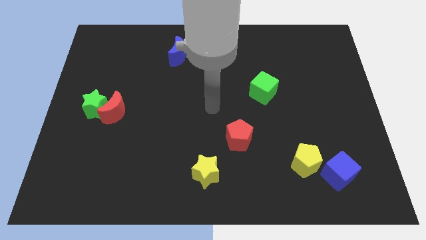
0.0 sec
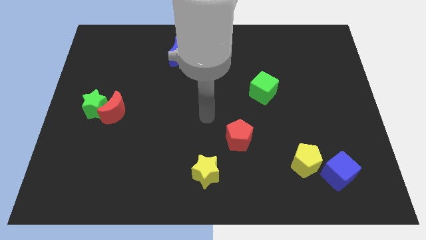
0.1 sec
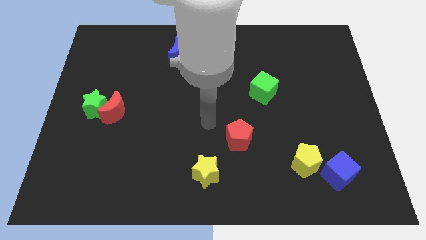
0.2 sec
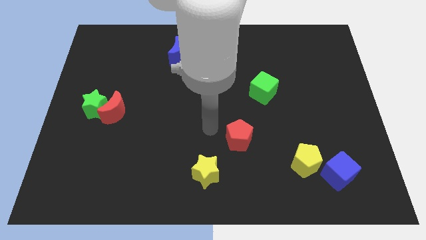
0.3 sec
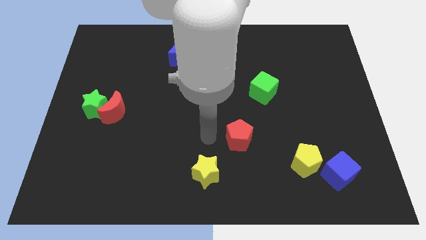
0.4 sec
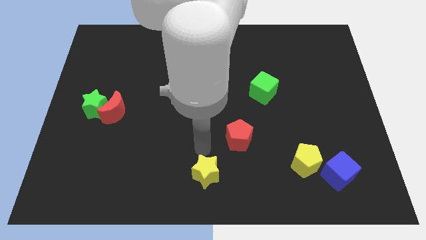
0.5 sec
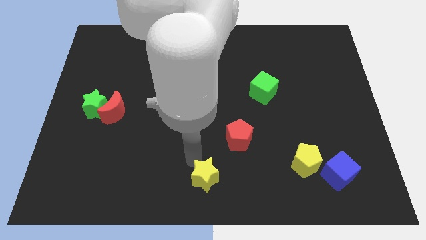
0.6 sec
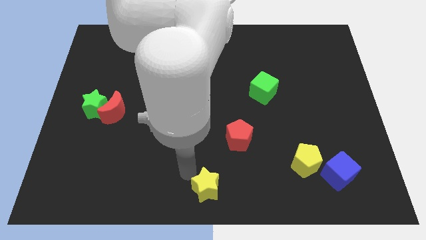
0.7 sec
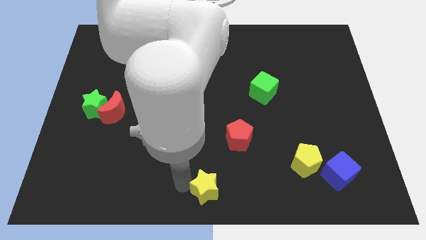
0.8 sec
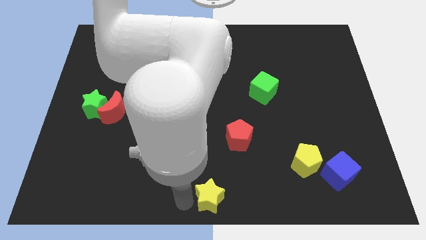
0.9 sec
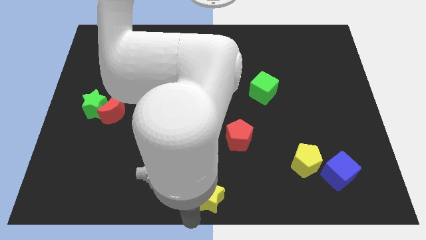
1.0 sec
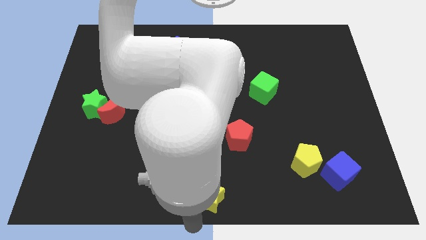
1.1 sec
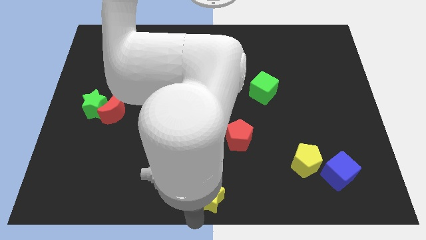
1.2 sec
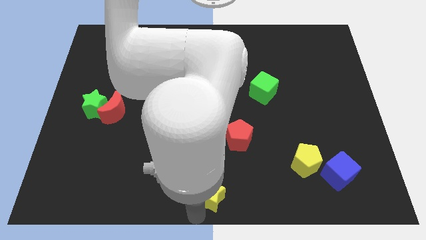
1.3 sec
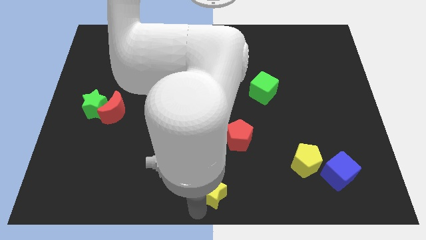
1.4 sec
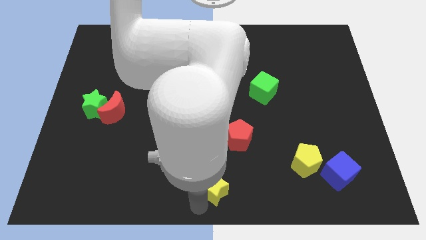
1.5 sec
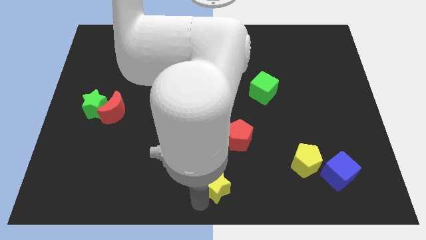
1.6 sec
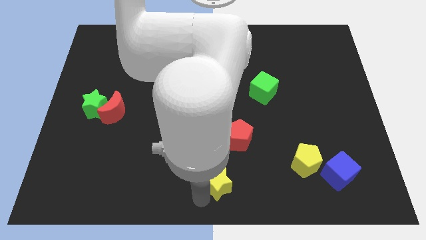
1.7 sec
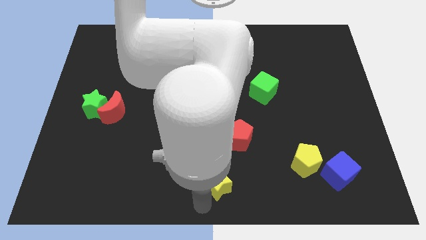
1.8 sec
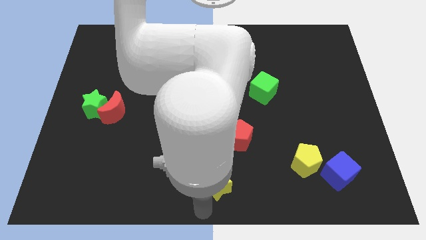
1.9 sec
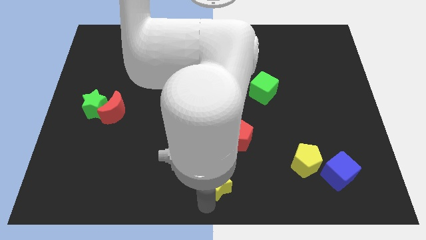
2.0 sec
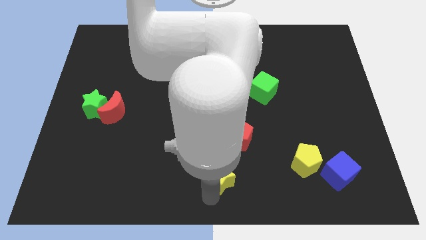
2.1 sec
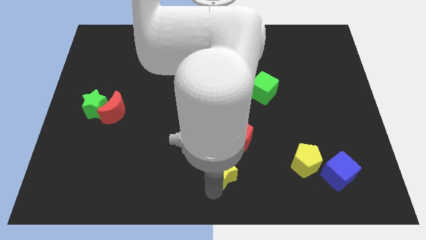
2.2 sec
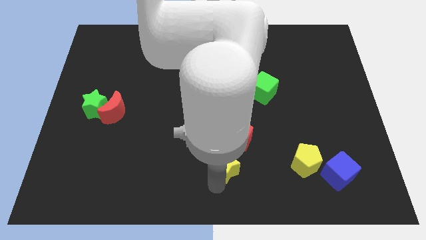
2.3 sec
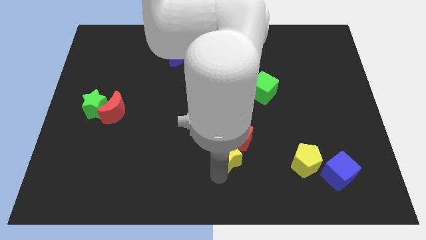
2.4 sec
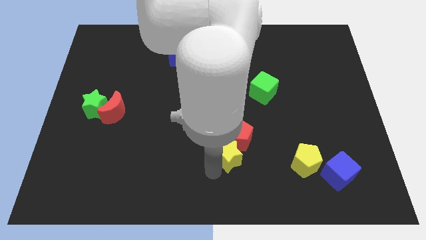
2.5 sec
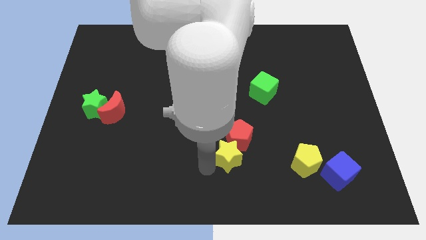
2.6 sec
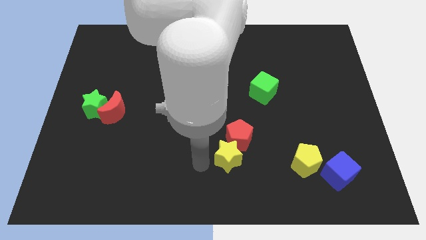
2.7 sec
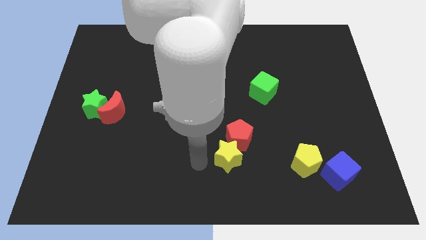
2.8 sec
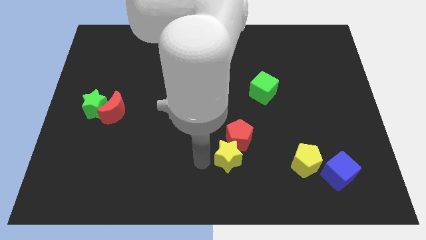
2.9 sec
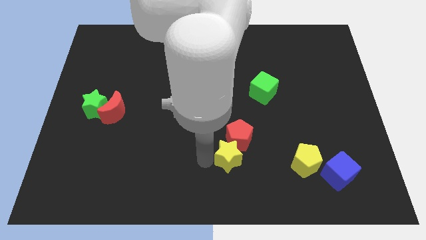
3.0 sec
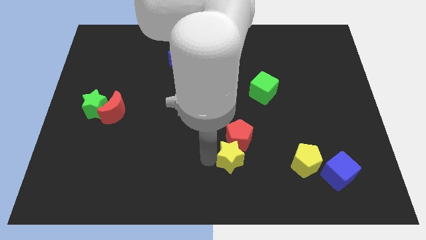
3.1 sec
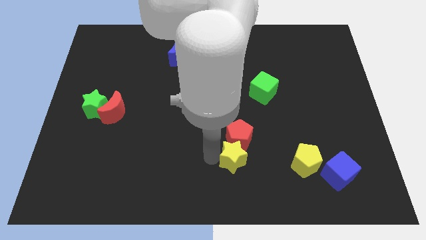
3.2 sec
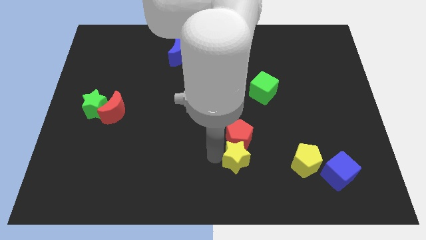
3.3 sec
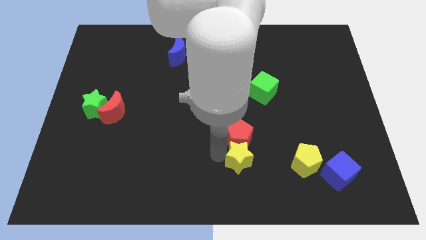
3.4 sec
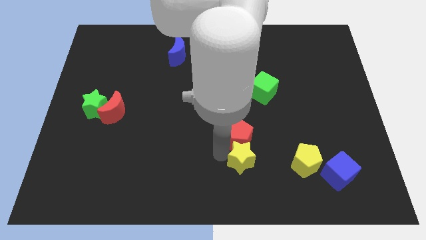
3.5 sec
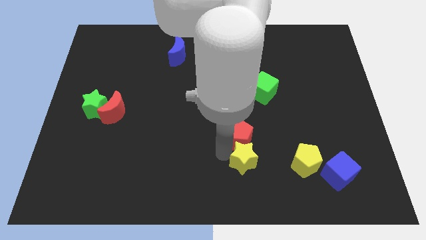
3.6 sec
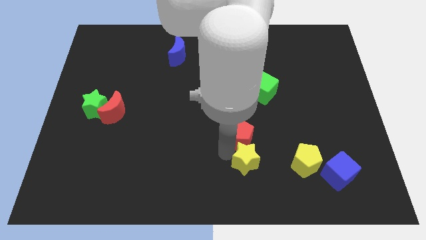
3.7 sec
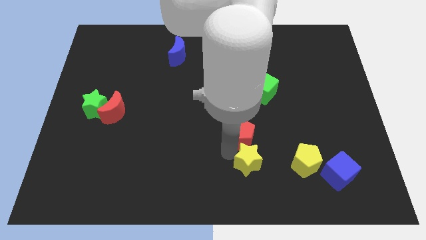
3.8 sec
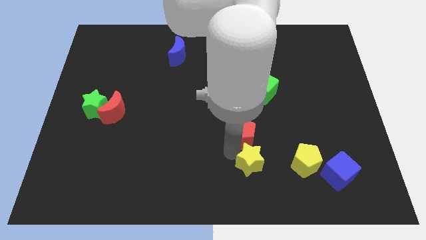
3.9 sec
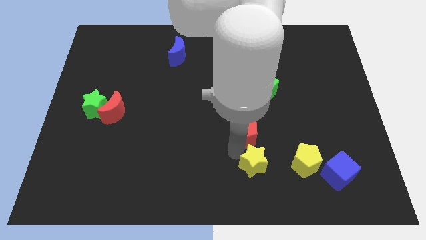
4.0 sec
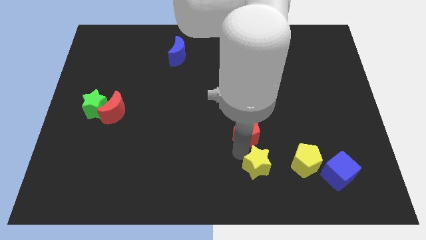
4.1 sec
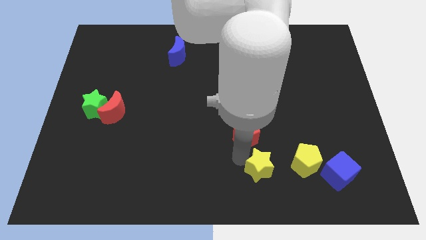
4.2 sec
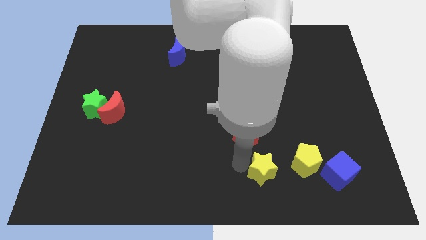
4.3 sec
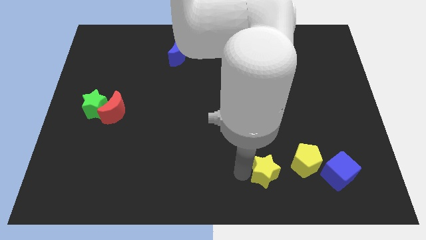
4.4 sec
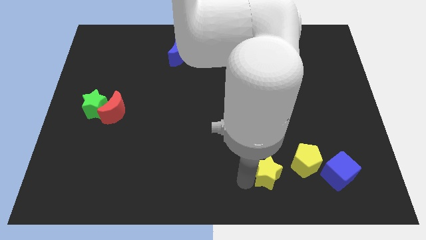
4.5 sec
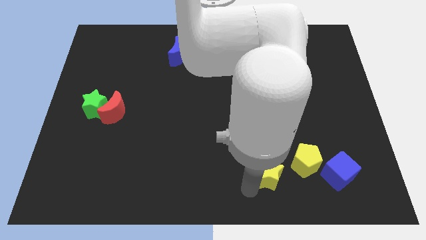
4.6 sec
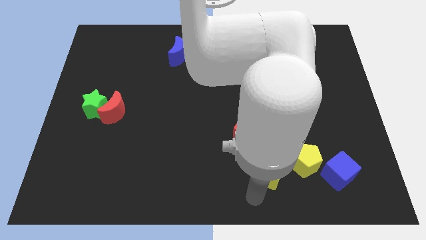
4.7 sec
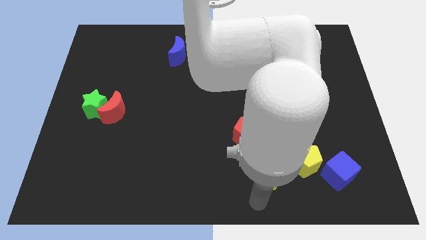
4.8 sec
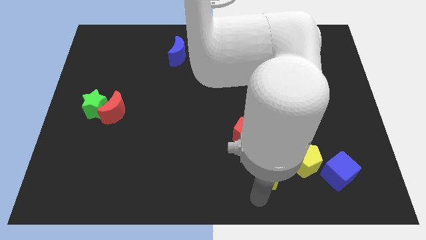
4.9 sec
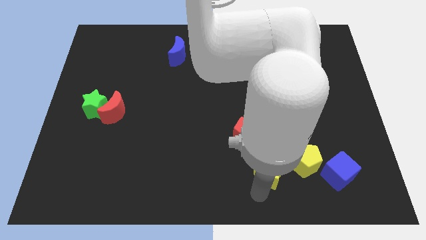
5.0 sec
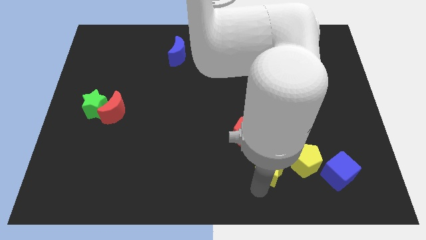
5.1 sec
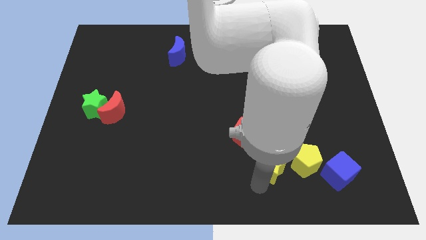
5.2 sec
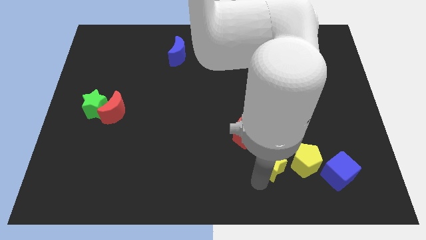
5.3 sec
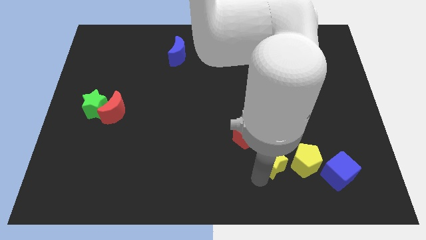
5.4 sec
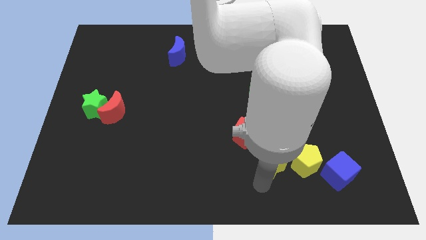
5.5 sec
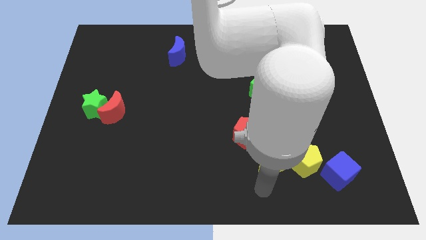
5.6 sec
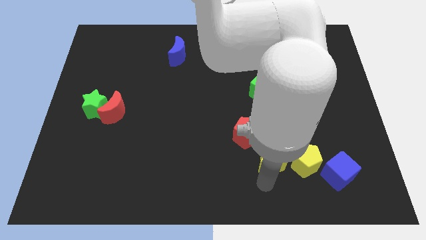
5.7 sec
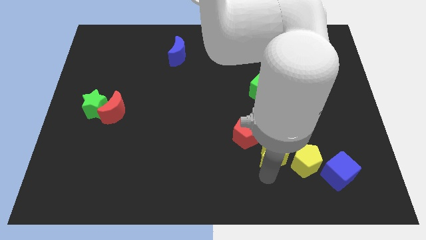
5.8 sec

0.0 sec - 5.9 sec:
push the yellow star to the top left side of the yellow pentagon

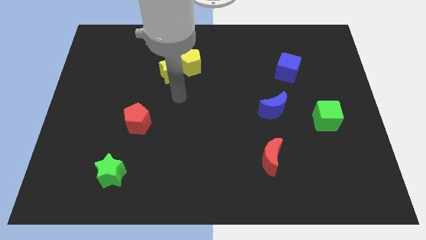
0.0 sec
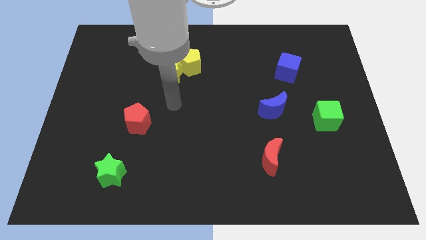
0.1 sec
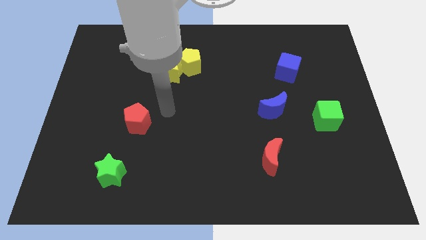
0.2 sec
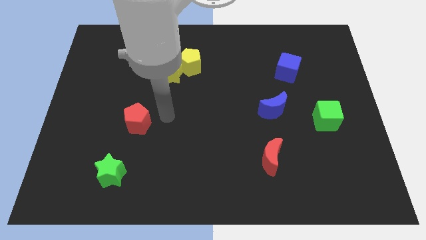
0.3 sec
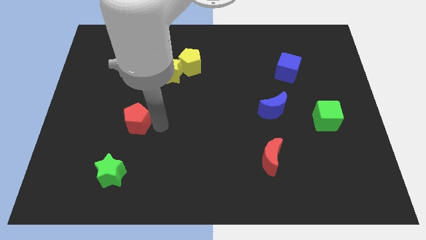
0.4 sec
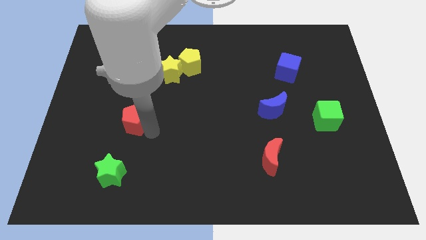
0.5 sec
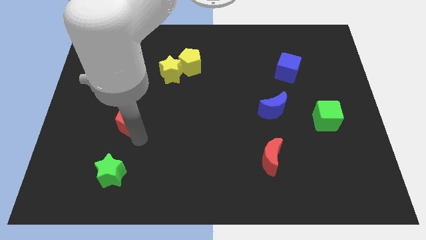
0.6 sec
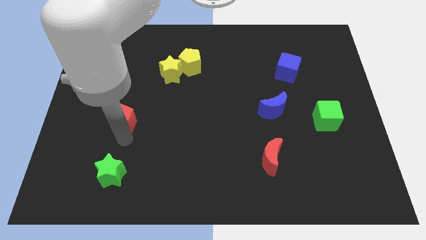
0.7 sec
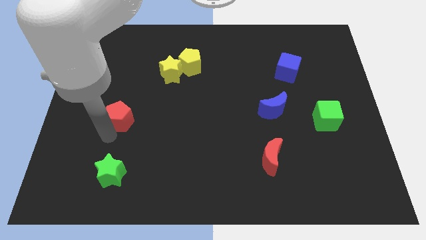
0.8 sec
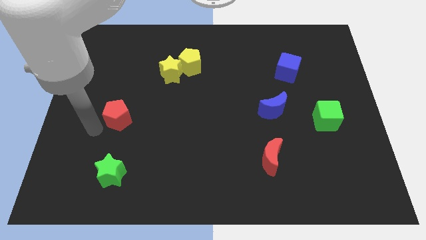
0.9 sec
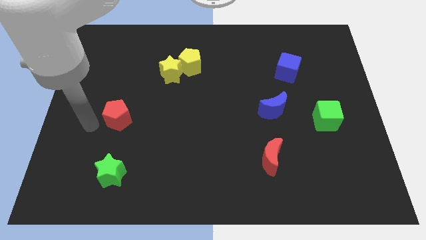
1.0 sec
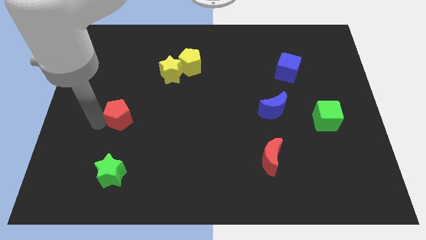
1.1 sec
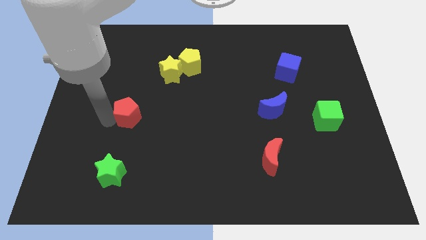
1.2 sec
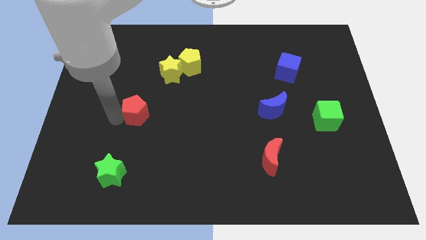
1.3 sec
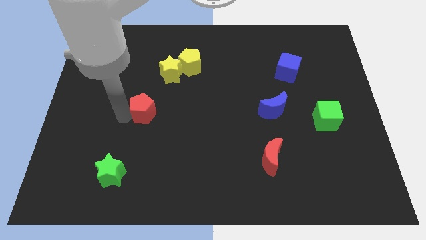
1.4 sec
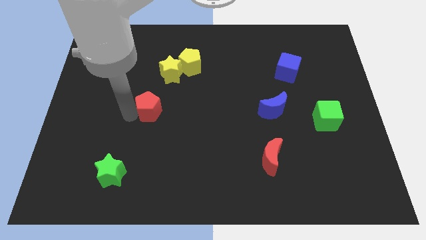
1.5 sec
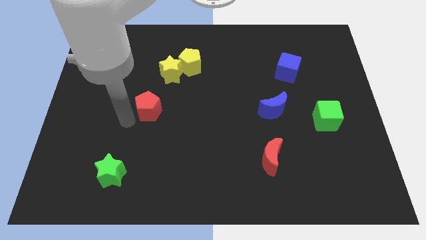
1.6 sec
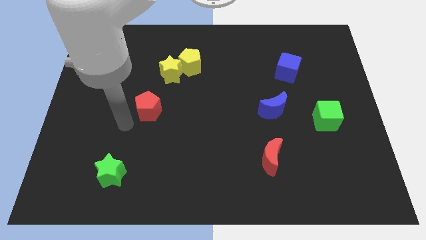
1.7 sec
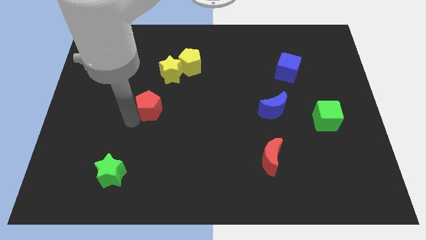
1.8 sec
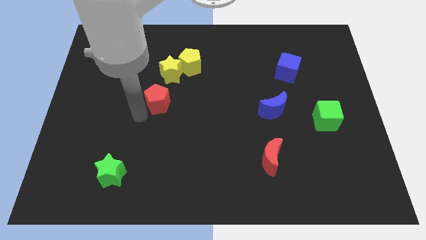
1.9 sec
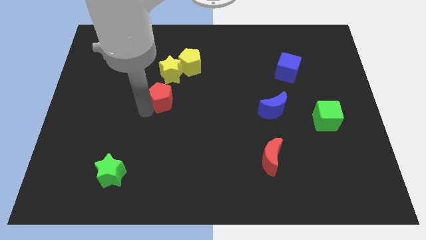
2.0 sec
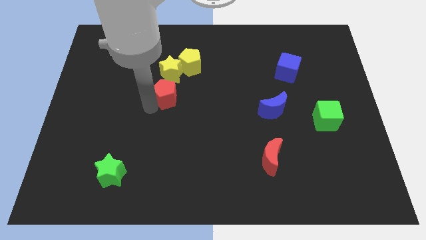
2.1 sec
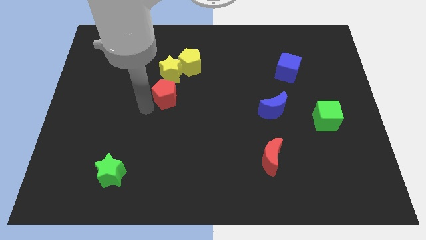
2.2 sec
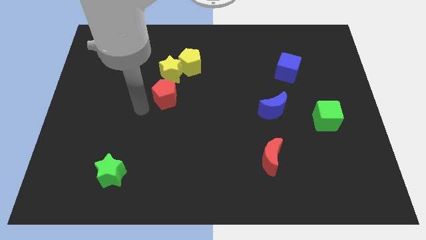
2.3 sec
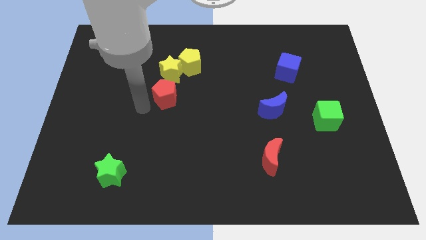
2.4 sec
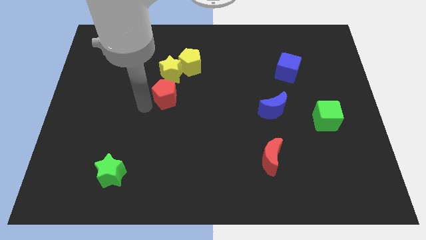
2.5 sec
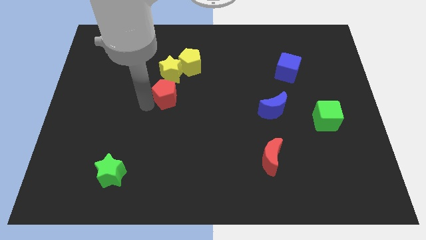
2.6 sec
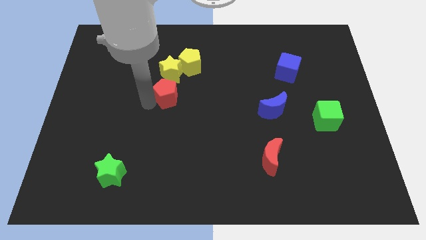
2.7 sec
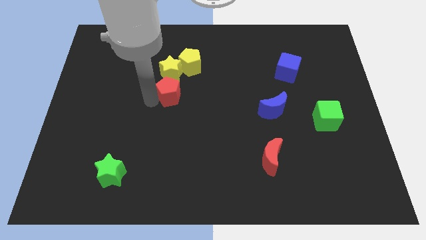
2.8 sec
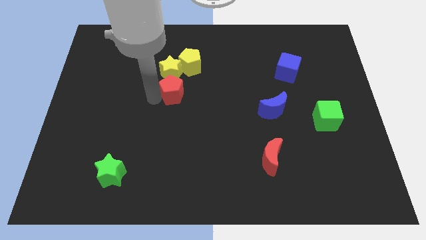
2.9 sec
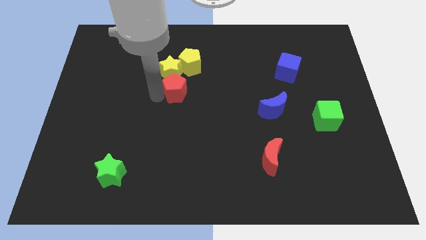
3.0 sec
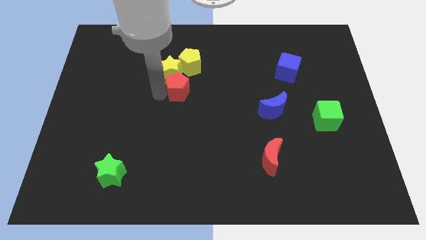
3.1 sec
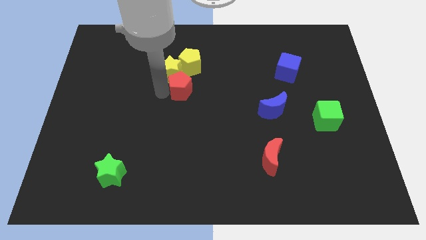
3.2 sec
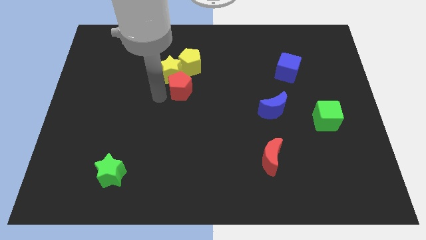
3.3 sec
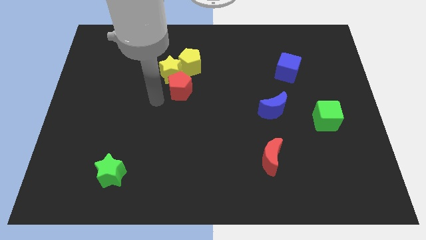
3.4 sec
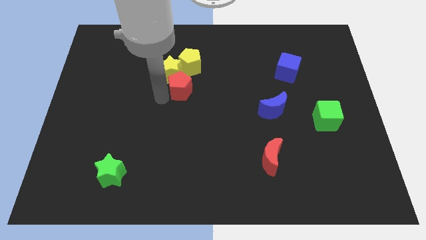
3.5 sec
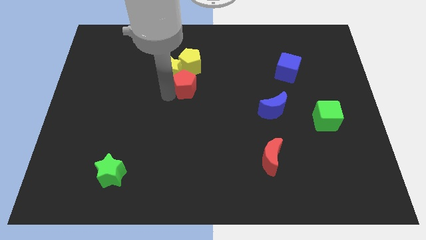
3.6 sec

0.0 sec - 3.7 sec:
slide the red pentagon to the right side of the yellow star
